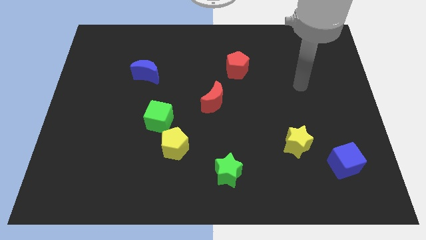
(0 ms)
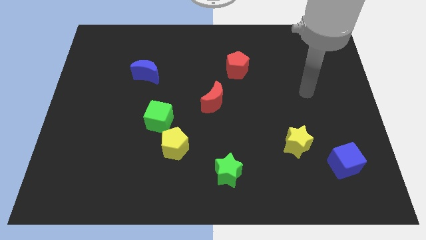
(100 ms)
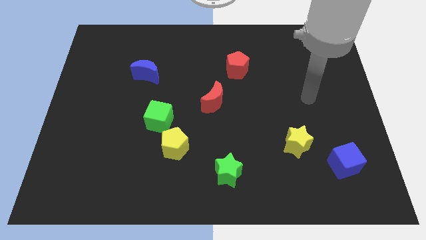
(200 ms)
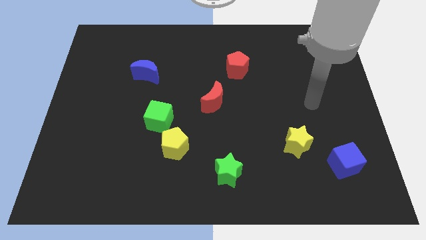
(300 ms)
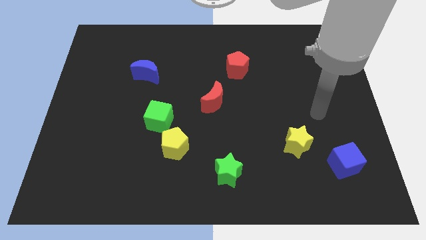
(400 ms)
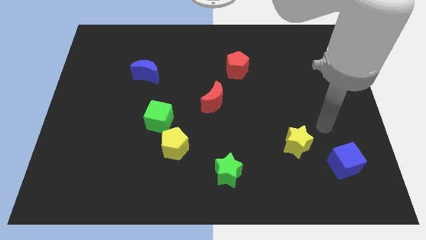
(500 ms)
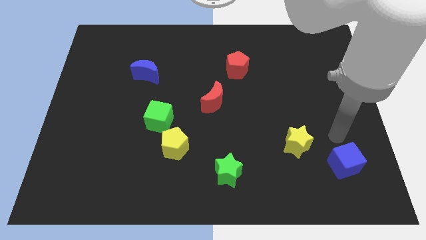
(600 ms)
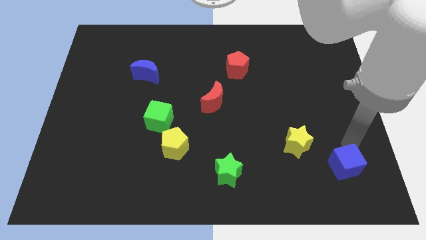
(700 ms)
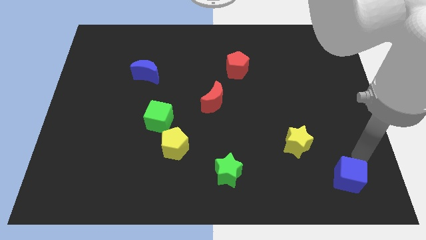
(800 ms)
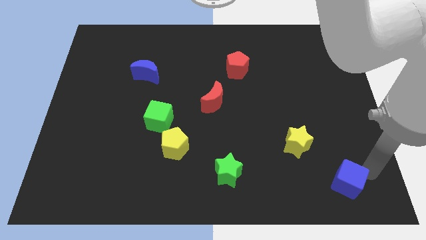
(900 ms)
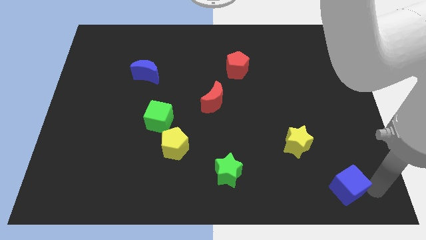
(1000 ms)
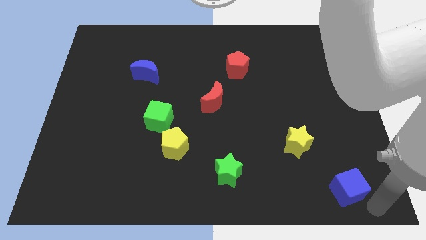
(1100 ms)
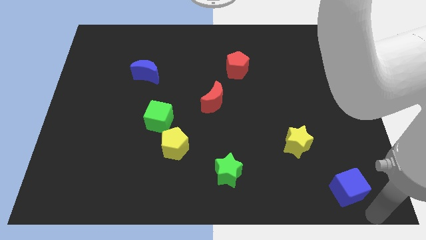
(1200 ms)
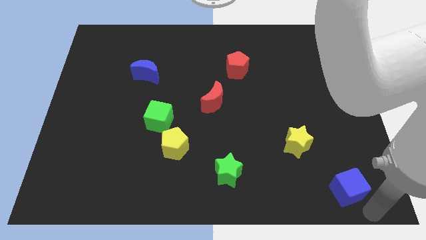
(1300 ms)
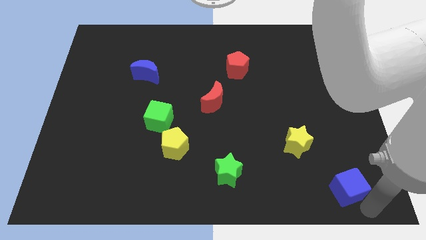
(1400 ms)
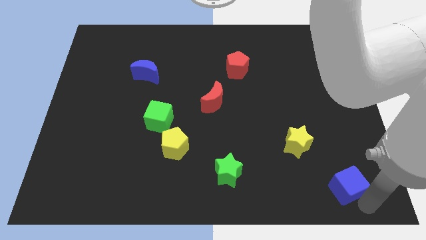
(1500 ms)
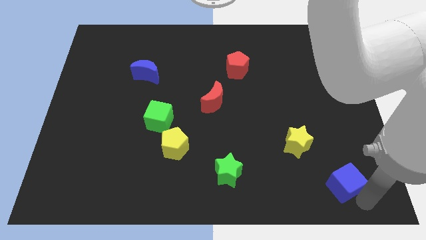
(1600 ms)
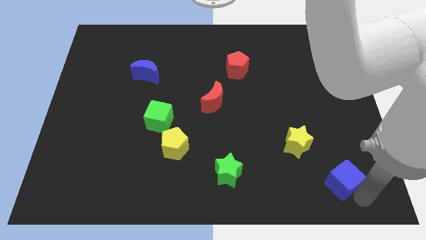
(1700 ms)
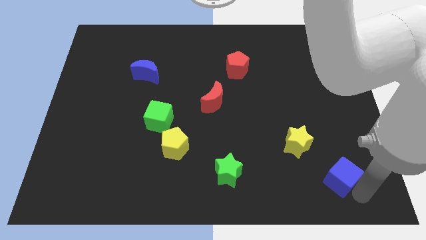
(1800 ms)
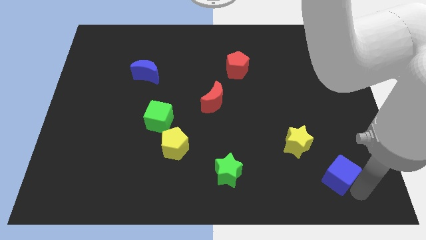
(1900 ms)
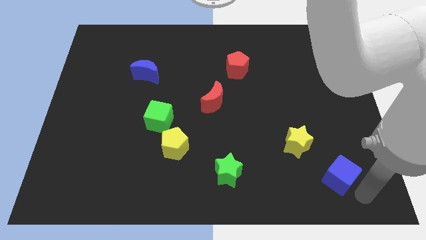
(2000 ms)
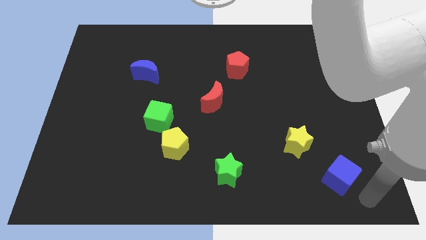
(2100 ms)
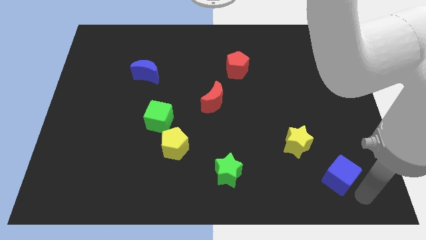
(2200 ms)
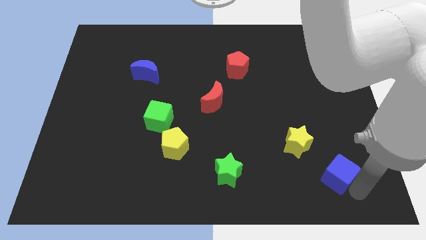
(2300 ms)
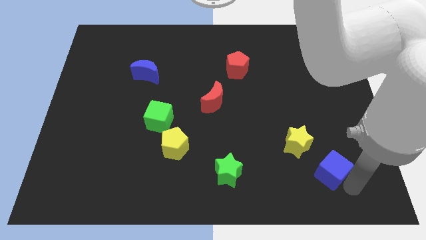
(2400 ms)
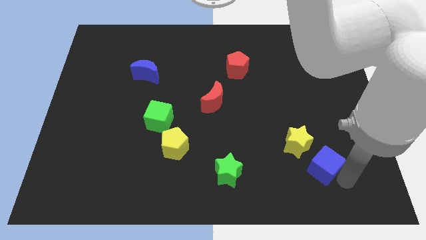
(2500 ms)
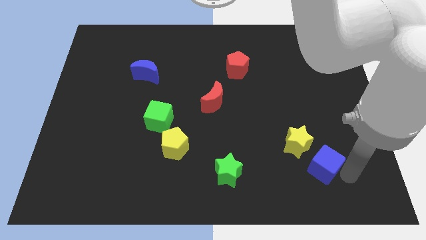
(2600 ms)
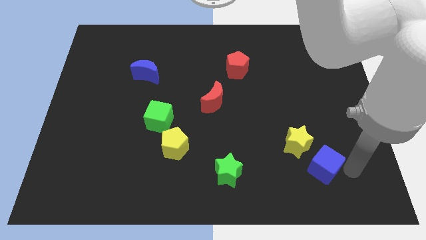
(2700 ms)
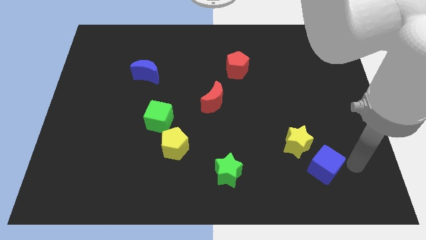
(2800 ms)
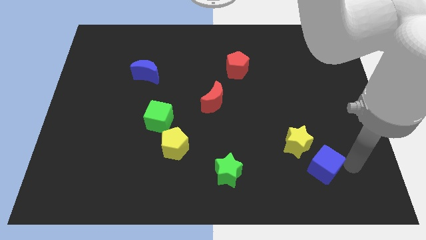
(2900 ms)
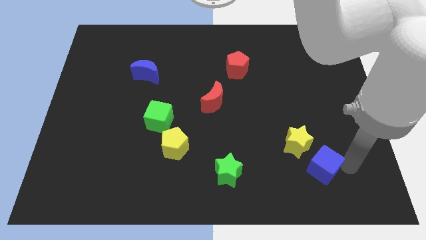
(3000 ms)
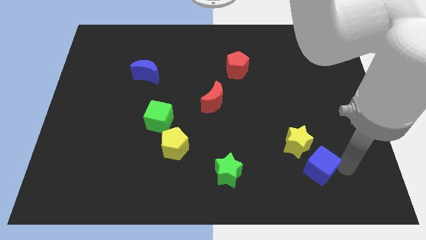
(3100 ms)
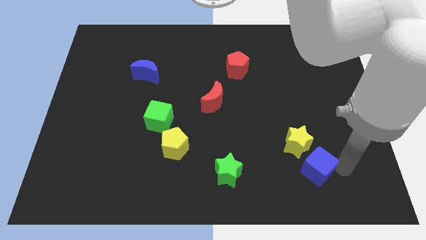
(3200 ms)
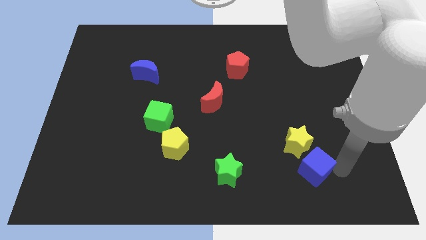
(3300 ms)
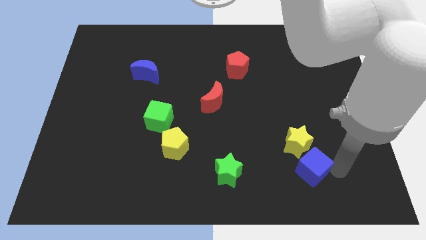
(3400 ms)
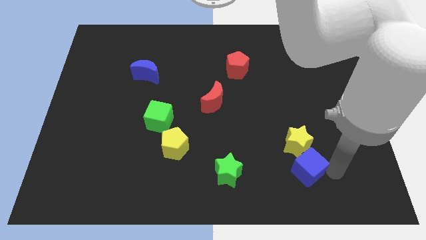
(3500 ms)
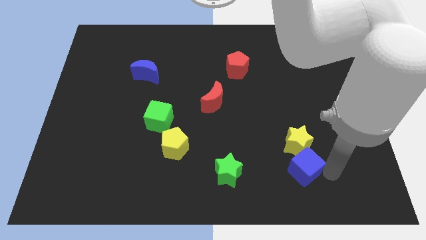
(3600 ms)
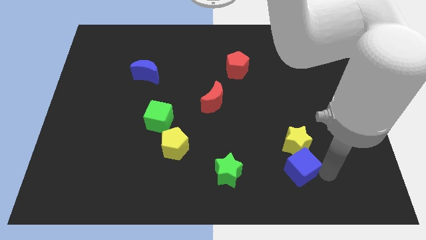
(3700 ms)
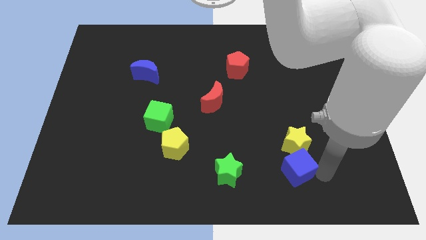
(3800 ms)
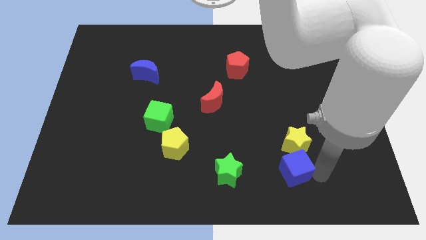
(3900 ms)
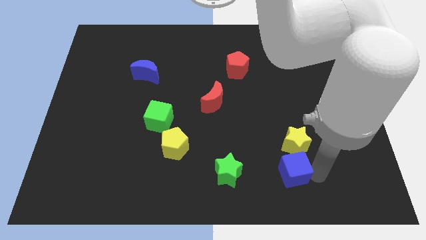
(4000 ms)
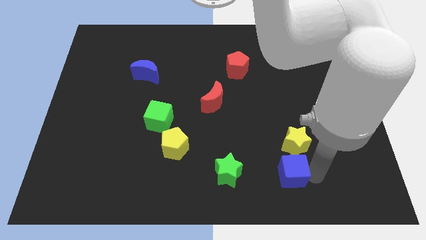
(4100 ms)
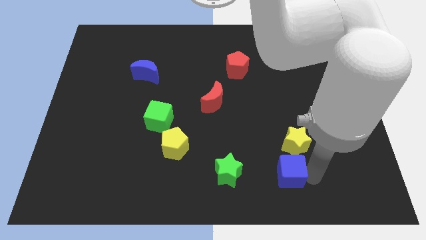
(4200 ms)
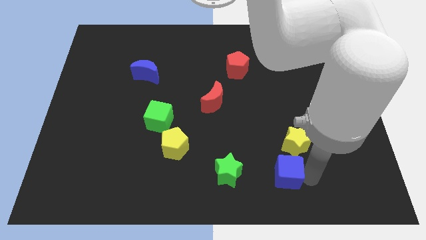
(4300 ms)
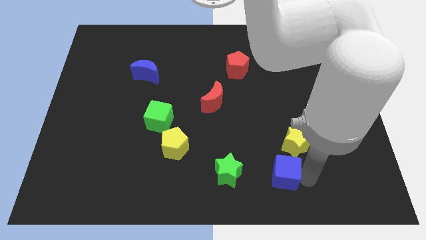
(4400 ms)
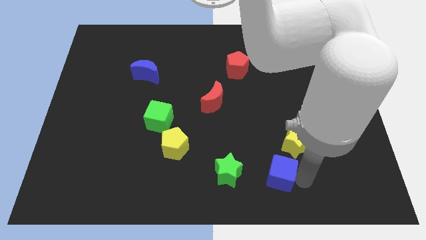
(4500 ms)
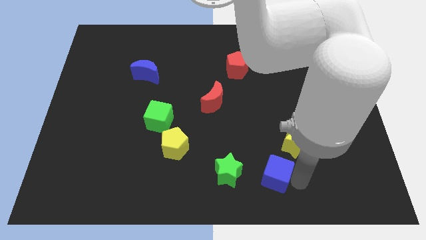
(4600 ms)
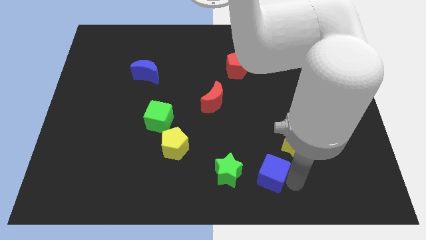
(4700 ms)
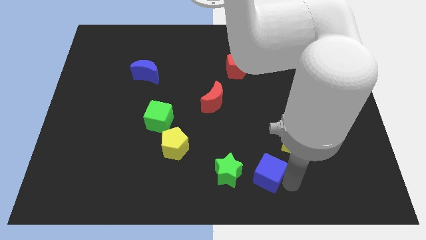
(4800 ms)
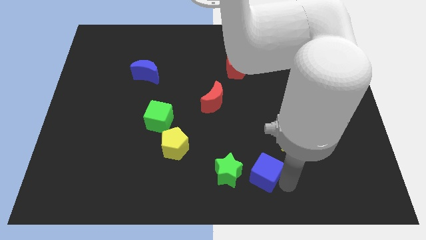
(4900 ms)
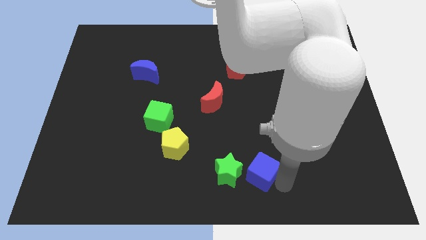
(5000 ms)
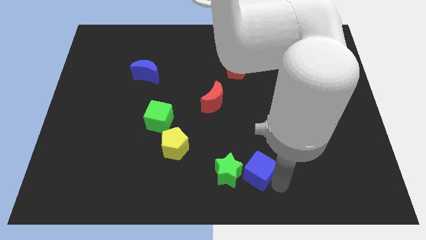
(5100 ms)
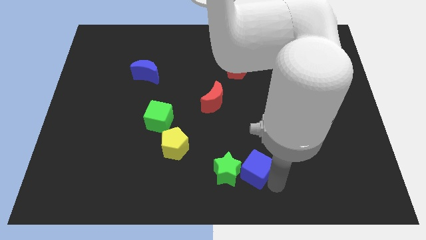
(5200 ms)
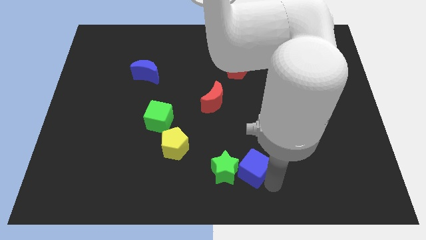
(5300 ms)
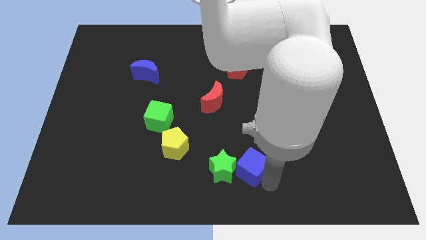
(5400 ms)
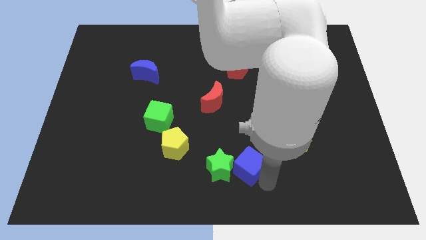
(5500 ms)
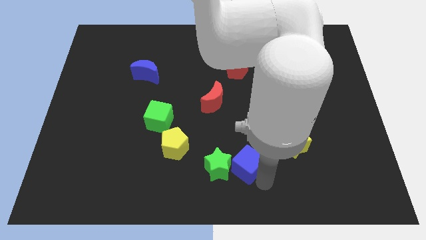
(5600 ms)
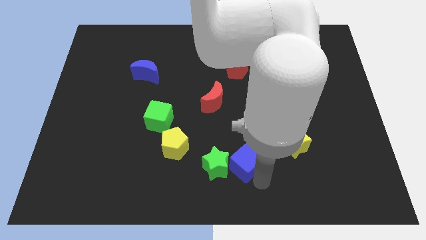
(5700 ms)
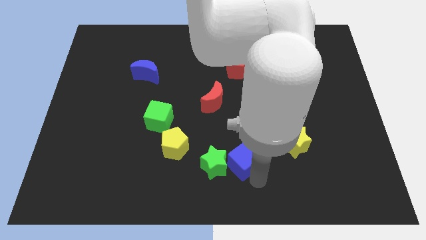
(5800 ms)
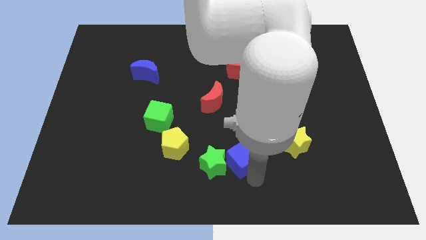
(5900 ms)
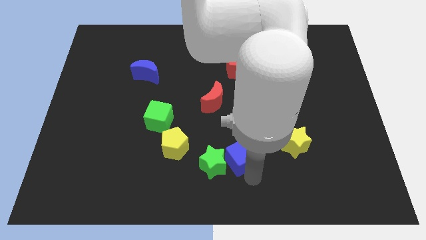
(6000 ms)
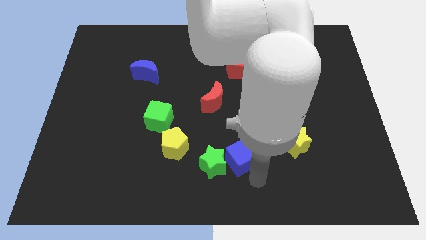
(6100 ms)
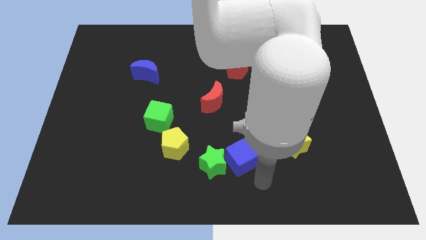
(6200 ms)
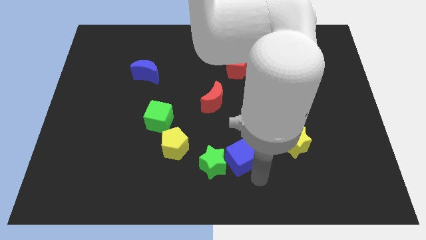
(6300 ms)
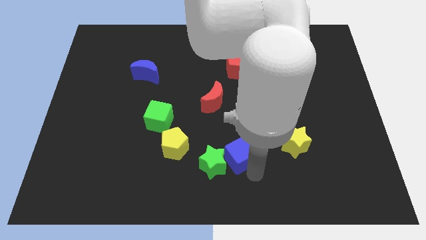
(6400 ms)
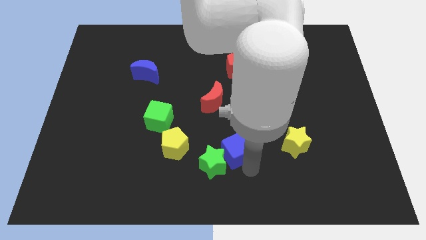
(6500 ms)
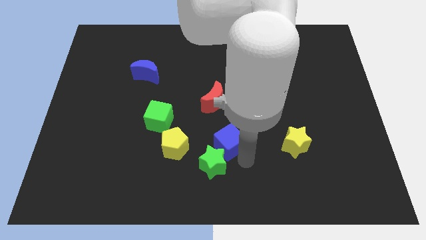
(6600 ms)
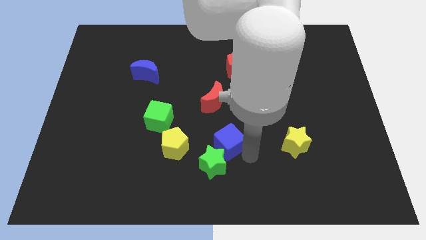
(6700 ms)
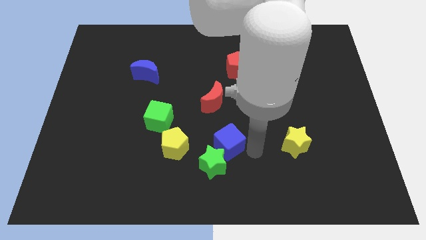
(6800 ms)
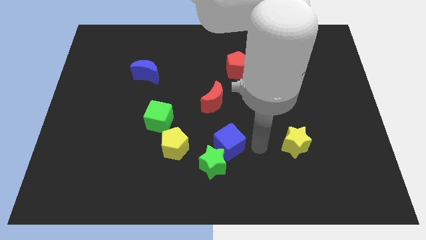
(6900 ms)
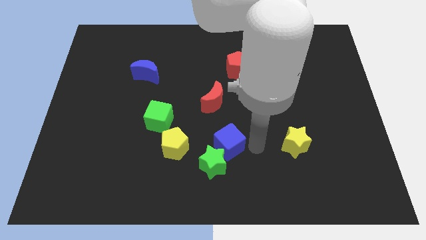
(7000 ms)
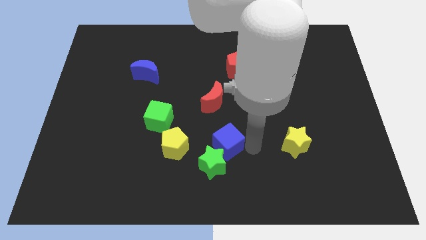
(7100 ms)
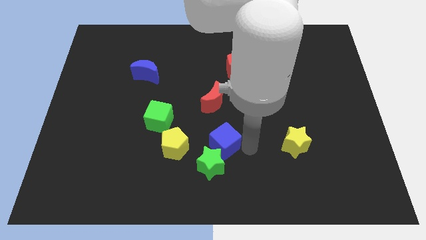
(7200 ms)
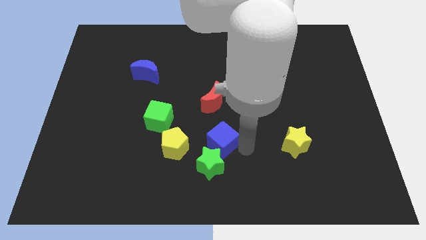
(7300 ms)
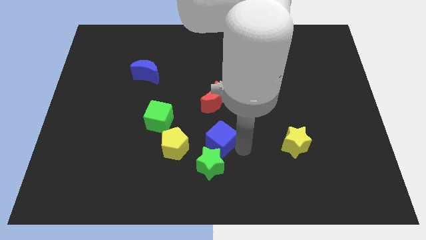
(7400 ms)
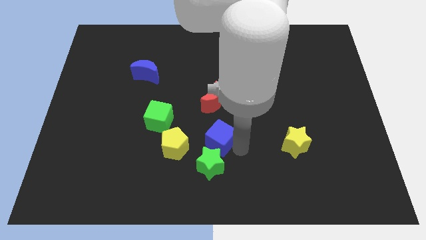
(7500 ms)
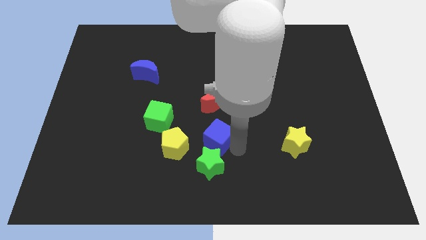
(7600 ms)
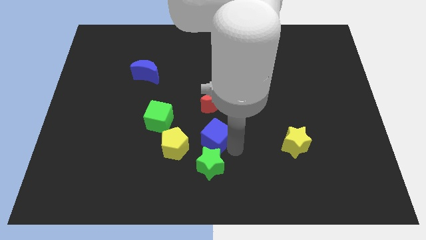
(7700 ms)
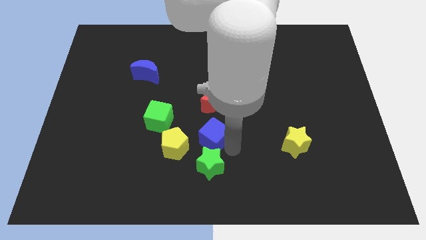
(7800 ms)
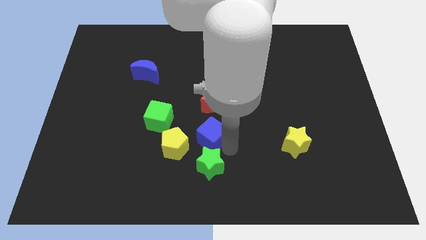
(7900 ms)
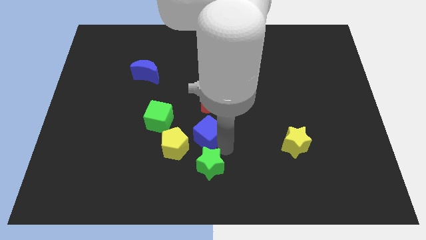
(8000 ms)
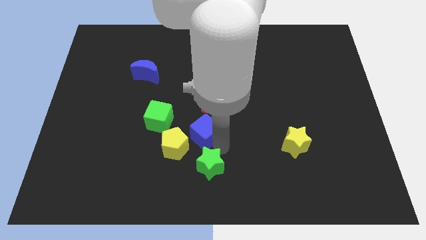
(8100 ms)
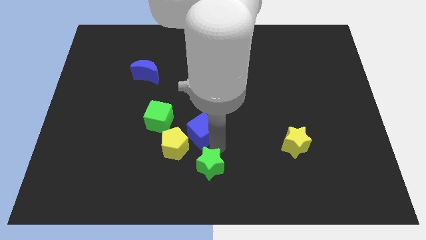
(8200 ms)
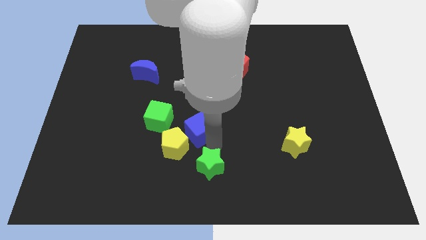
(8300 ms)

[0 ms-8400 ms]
slide the blue cube to the yellow pentagon
